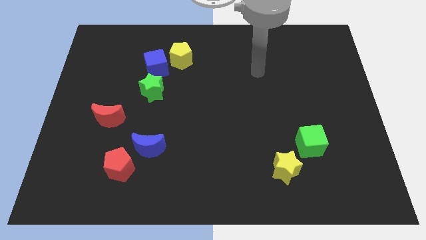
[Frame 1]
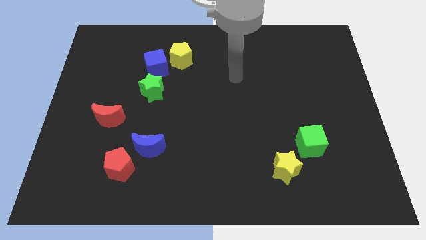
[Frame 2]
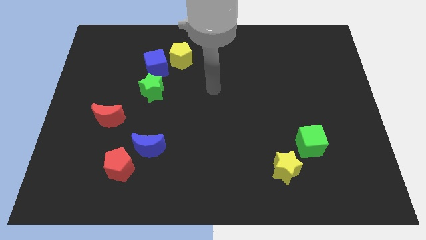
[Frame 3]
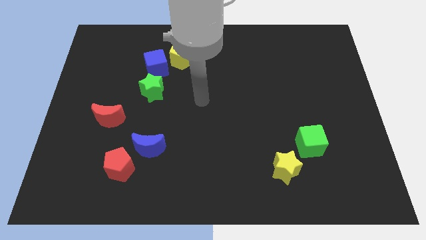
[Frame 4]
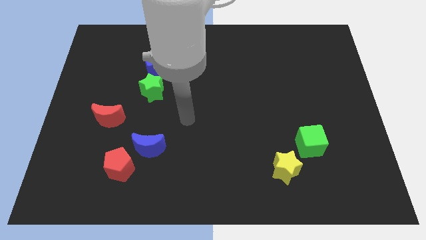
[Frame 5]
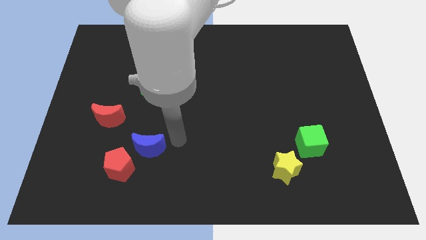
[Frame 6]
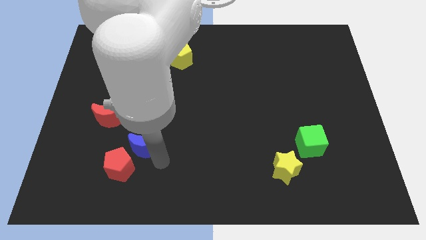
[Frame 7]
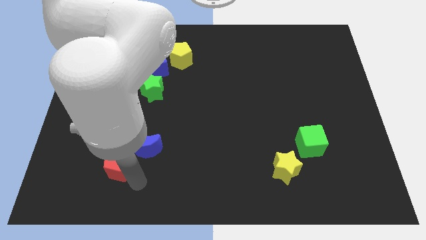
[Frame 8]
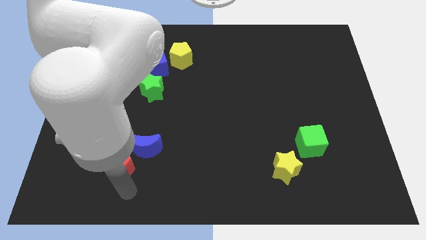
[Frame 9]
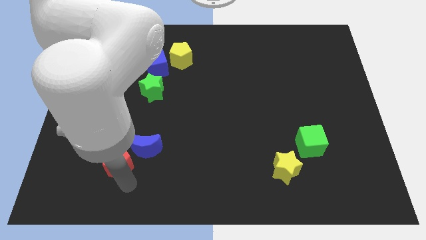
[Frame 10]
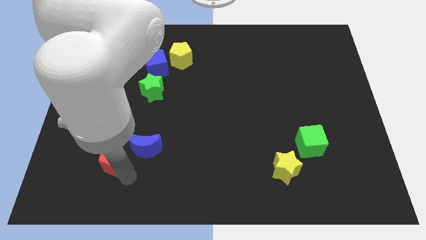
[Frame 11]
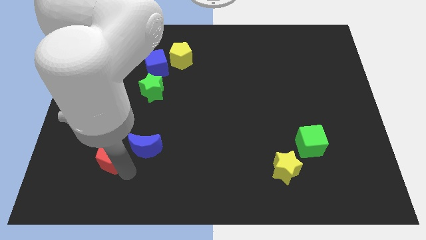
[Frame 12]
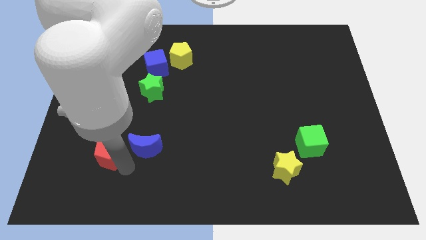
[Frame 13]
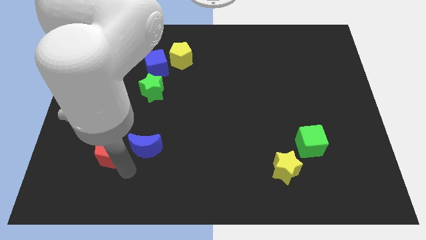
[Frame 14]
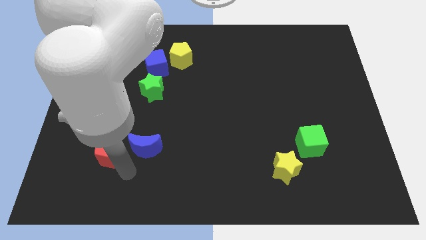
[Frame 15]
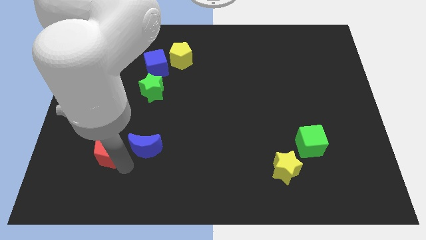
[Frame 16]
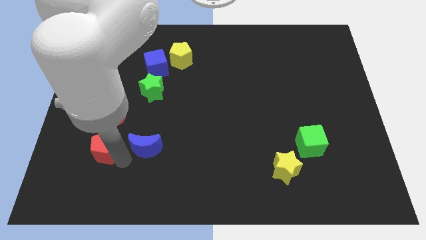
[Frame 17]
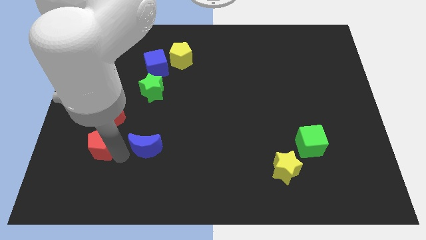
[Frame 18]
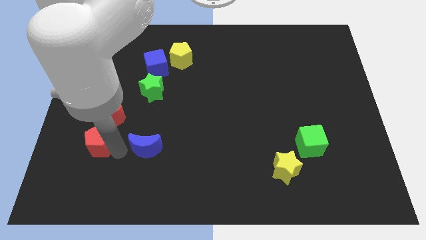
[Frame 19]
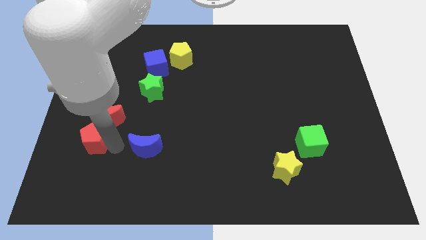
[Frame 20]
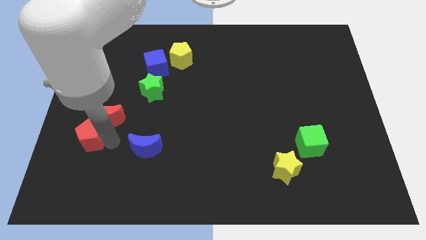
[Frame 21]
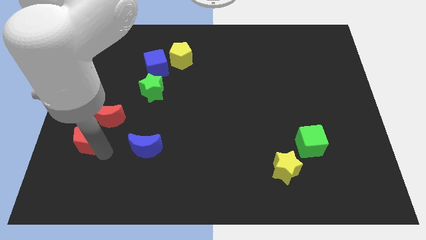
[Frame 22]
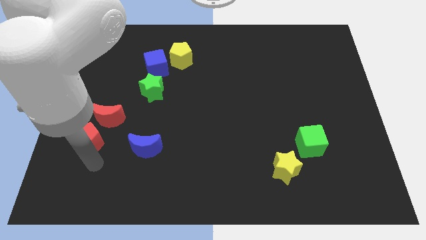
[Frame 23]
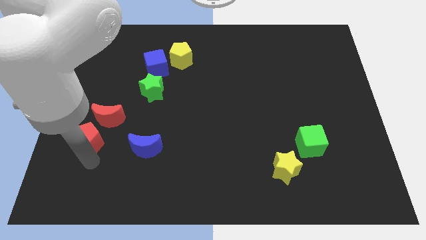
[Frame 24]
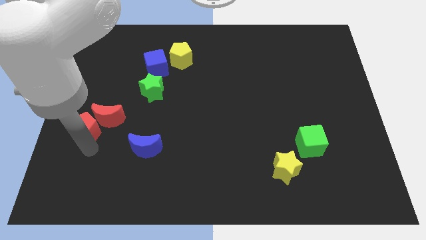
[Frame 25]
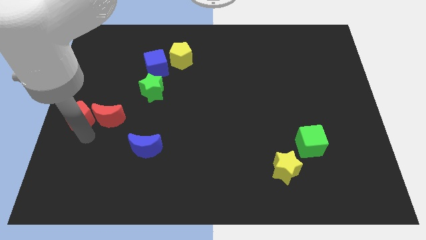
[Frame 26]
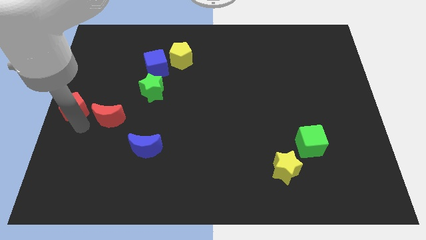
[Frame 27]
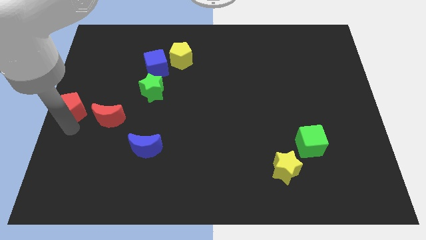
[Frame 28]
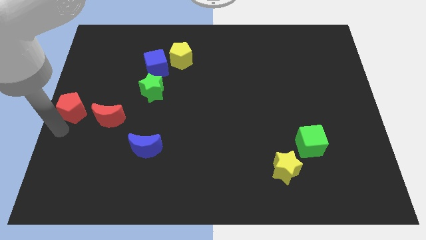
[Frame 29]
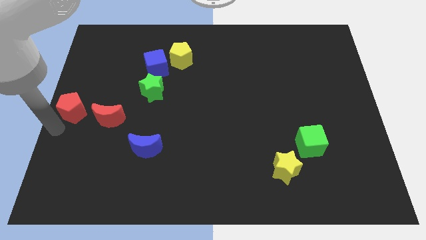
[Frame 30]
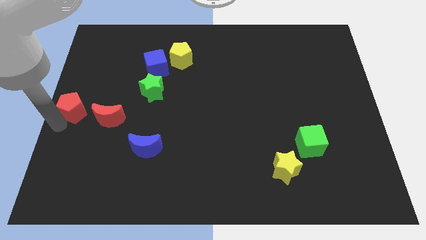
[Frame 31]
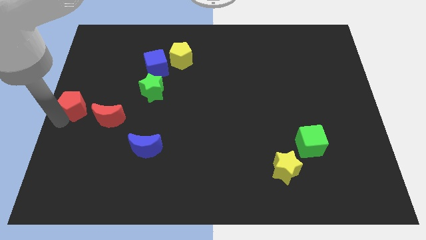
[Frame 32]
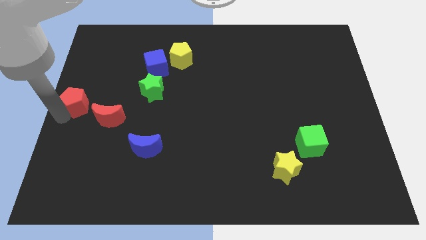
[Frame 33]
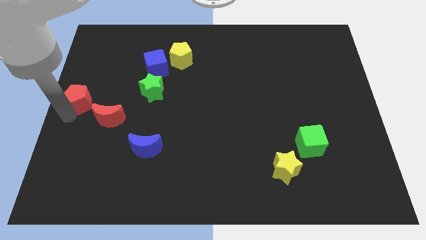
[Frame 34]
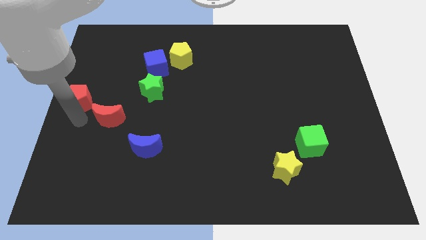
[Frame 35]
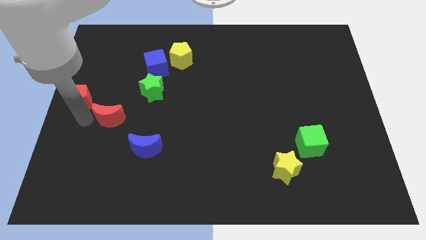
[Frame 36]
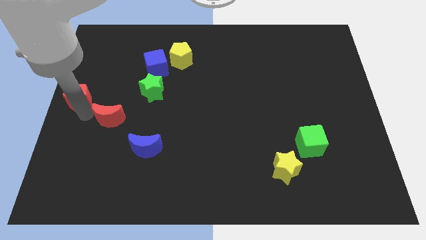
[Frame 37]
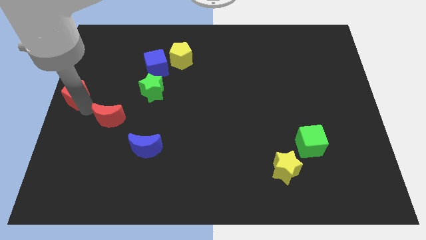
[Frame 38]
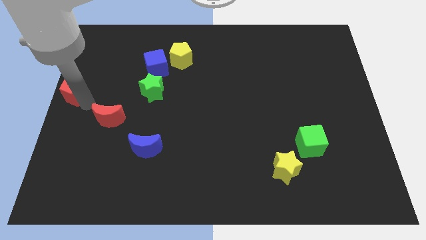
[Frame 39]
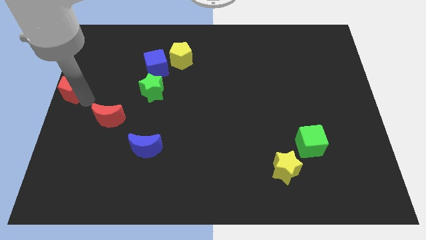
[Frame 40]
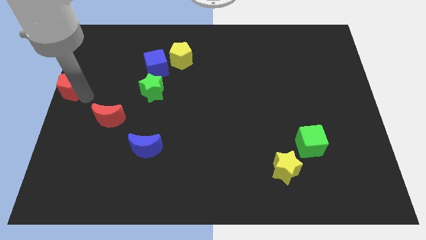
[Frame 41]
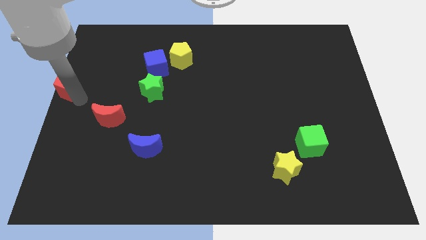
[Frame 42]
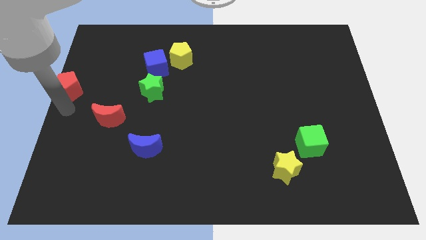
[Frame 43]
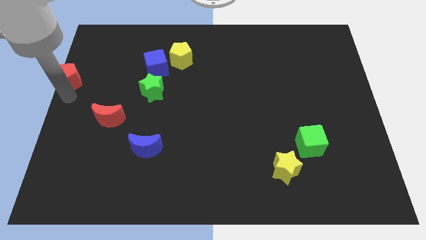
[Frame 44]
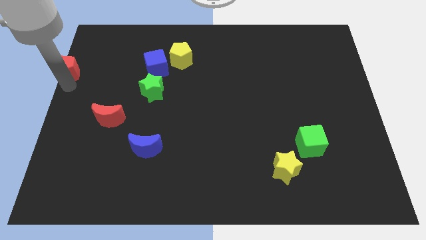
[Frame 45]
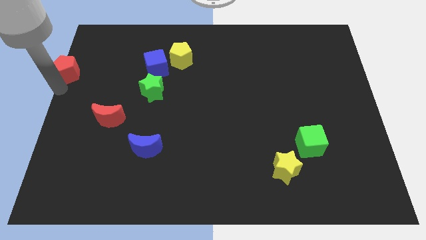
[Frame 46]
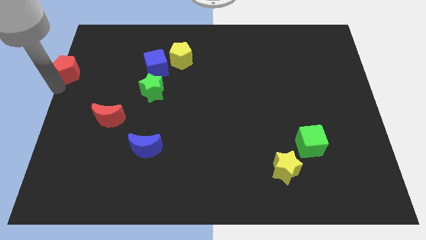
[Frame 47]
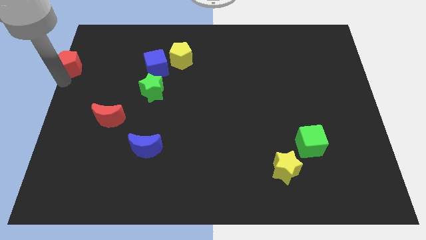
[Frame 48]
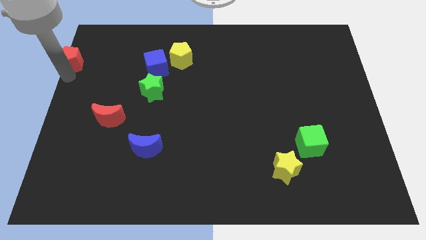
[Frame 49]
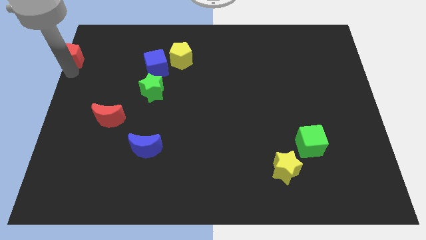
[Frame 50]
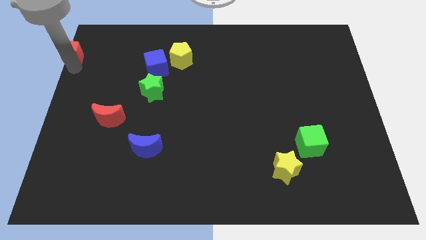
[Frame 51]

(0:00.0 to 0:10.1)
push the red pentagon to the upper left corner

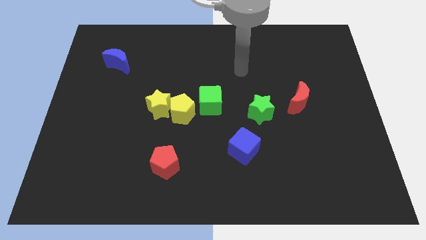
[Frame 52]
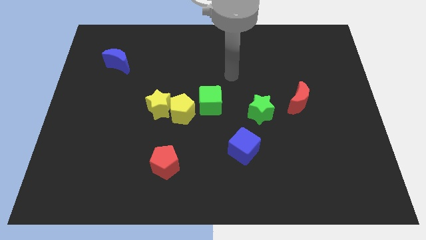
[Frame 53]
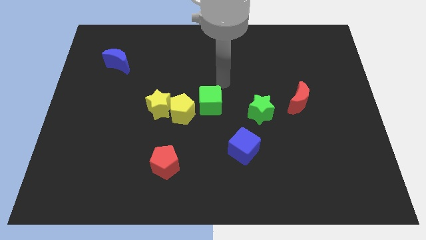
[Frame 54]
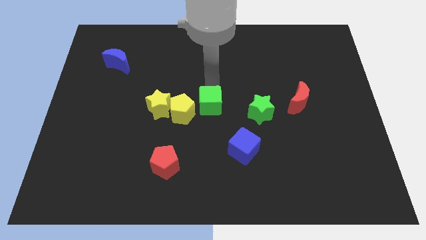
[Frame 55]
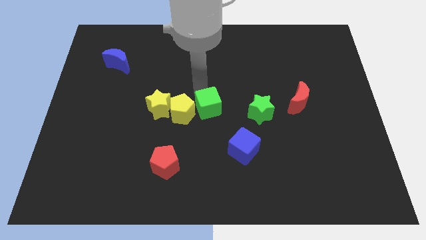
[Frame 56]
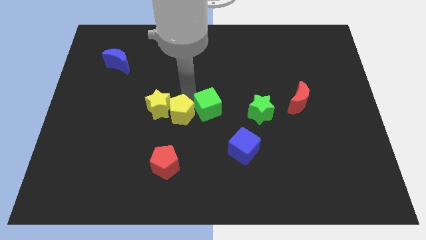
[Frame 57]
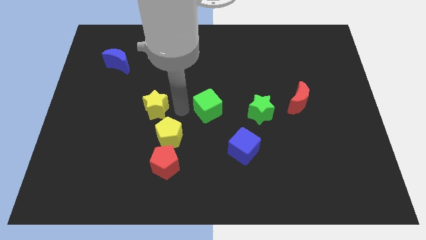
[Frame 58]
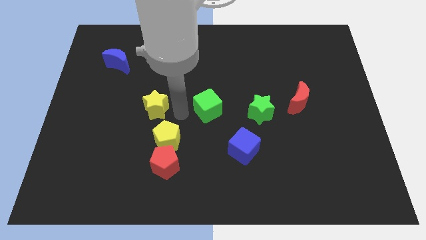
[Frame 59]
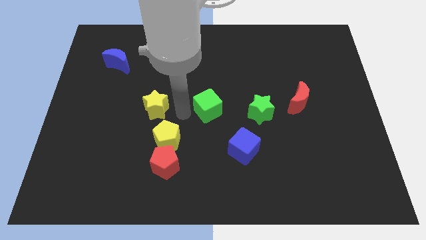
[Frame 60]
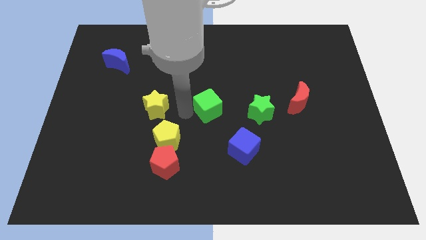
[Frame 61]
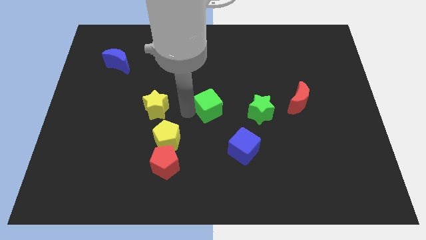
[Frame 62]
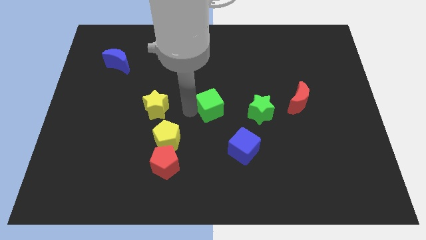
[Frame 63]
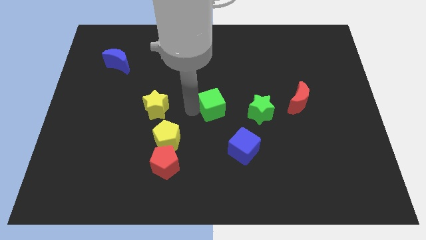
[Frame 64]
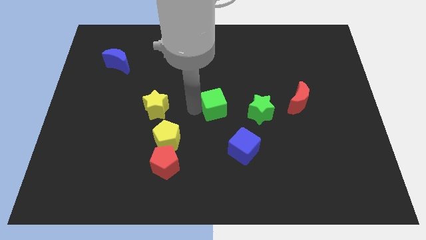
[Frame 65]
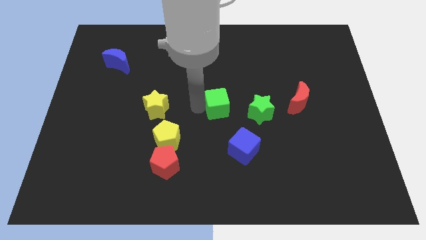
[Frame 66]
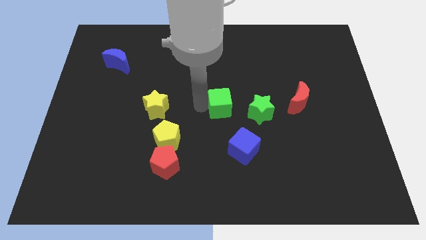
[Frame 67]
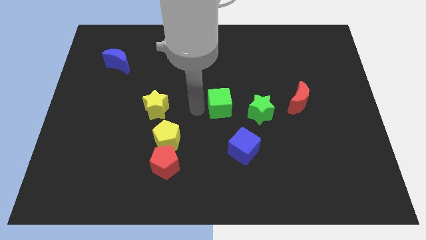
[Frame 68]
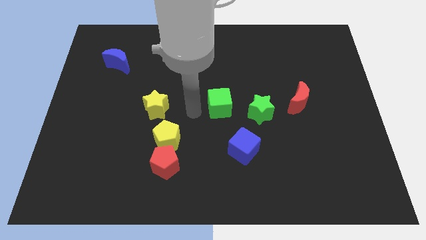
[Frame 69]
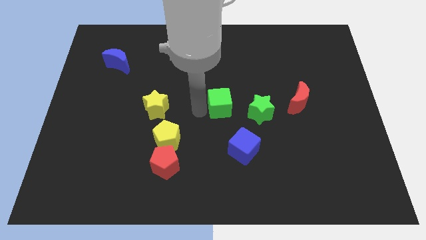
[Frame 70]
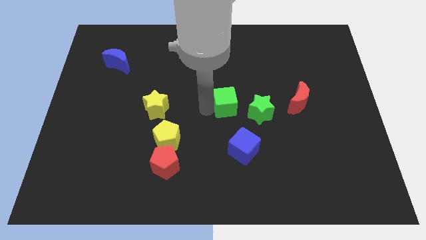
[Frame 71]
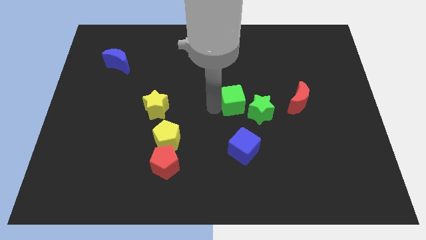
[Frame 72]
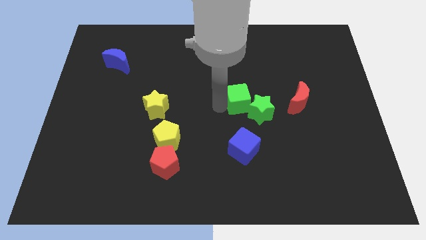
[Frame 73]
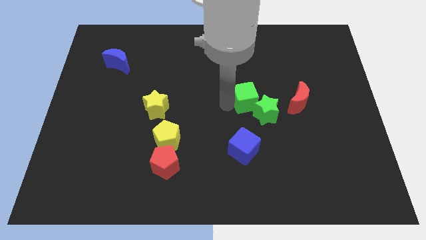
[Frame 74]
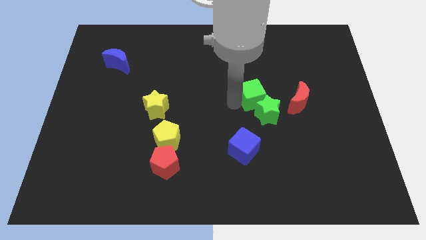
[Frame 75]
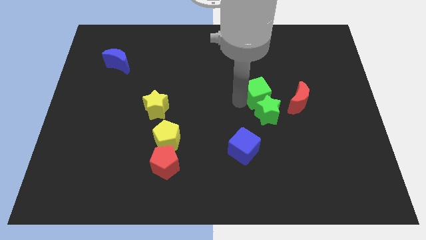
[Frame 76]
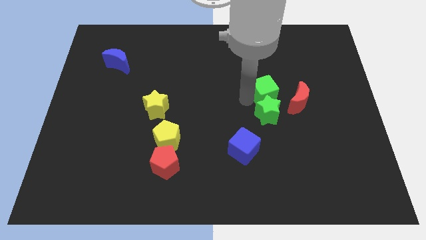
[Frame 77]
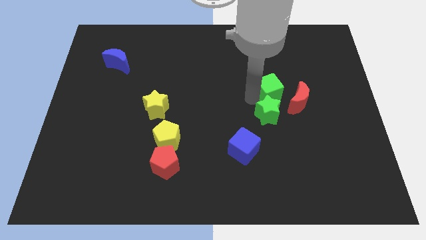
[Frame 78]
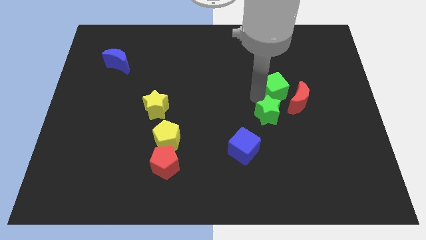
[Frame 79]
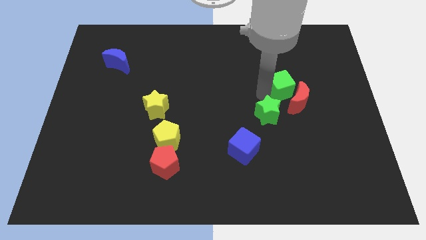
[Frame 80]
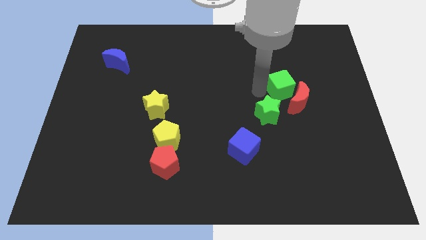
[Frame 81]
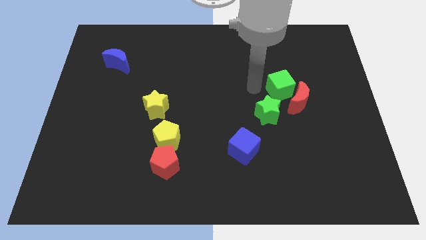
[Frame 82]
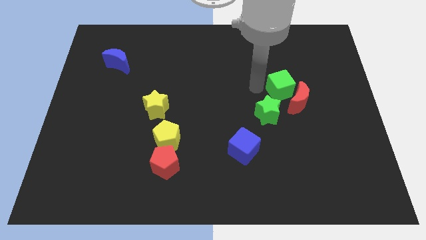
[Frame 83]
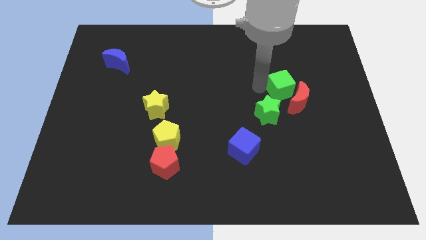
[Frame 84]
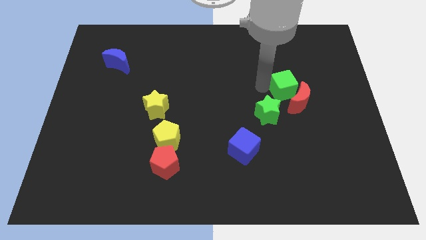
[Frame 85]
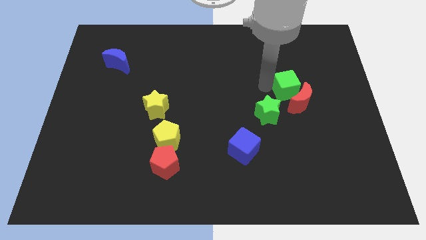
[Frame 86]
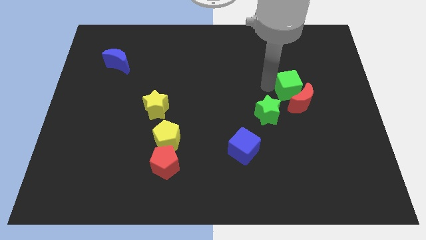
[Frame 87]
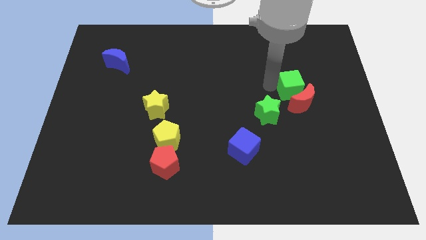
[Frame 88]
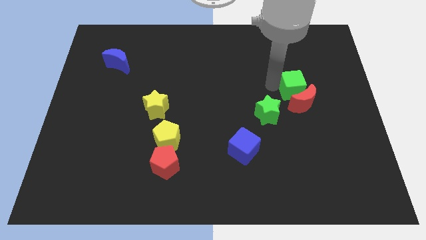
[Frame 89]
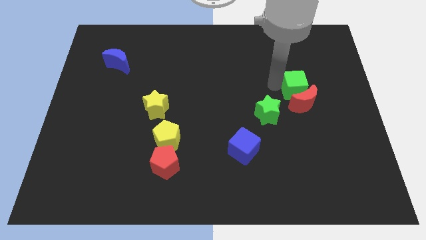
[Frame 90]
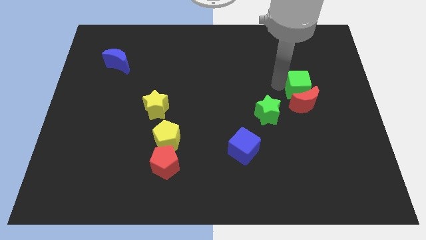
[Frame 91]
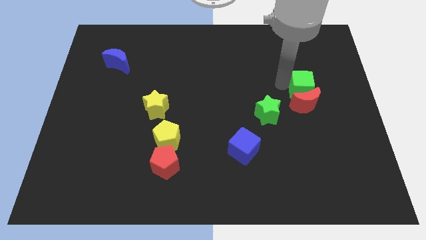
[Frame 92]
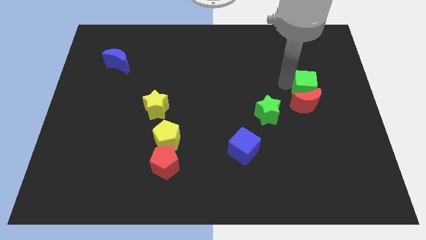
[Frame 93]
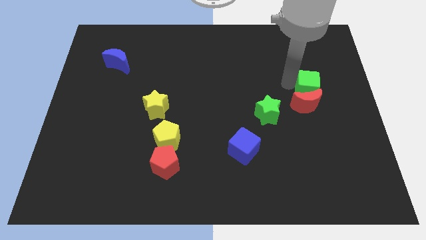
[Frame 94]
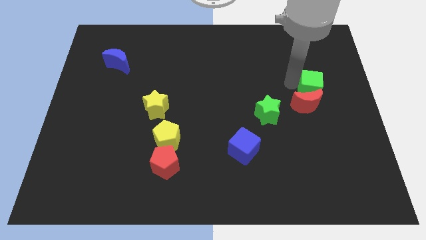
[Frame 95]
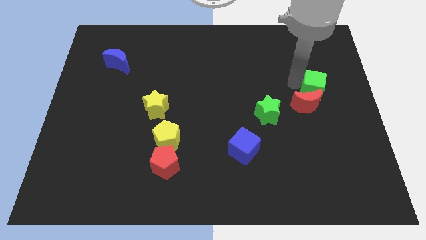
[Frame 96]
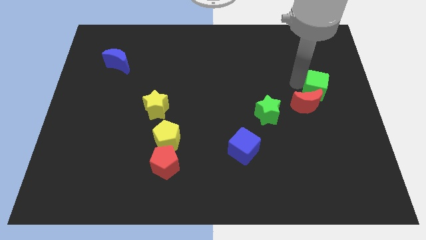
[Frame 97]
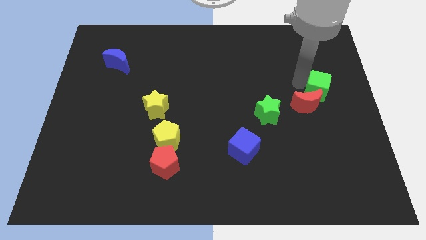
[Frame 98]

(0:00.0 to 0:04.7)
push the green cube to the right side of the board
